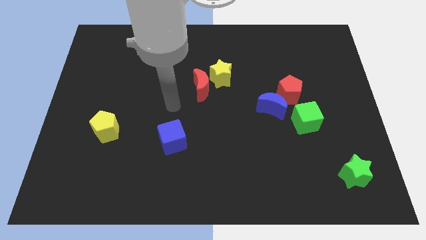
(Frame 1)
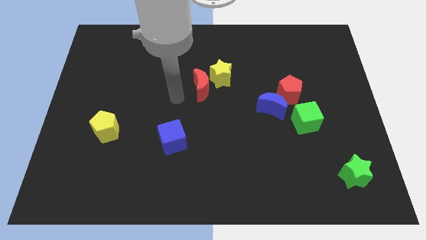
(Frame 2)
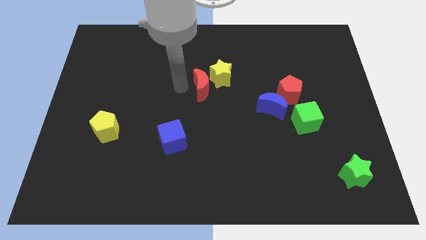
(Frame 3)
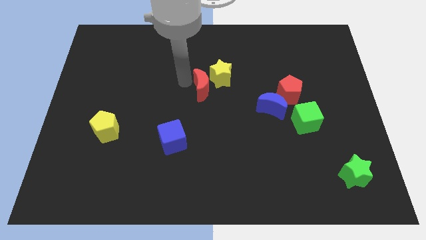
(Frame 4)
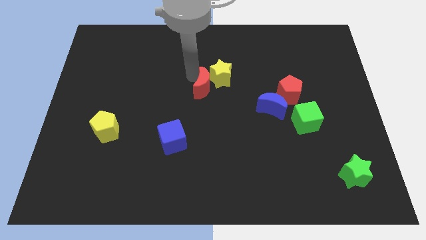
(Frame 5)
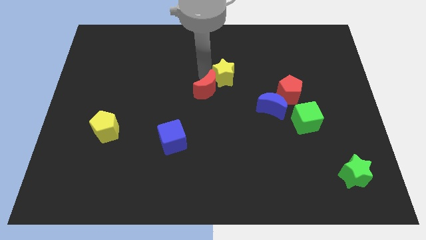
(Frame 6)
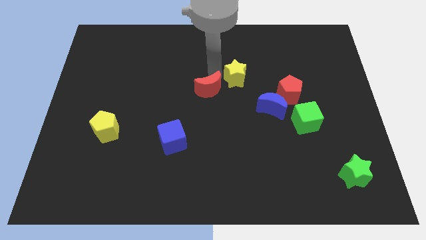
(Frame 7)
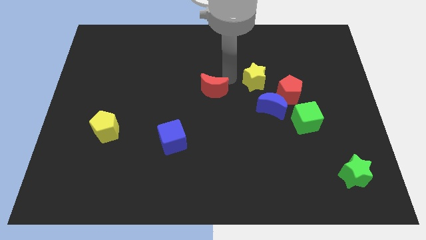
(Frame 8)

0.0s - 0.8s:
separate the red moon from the yellow star

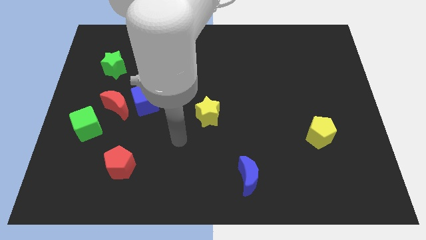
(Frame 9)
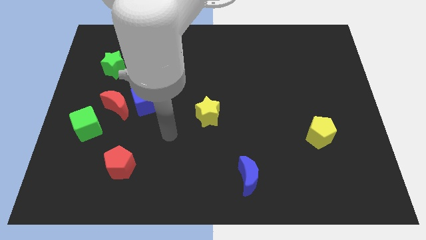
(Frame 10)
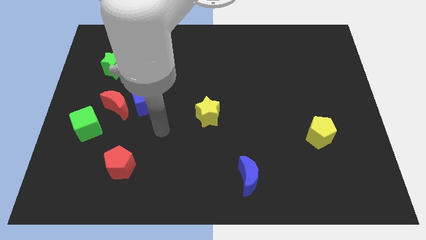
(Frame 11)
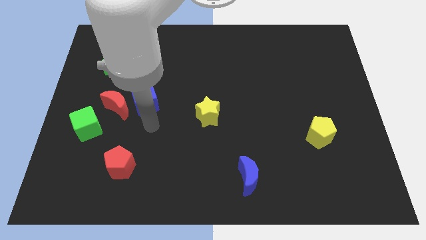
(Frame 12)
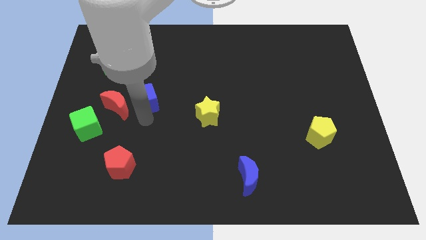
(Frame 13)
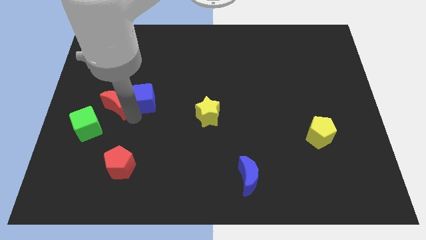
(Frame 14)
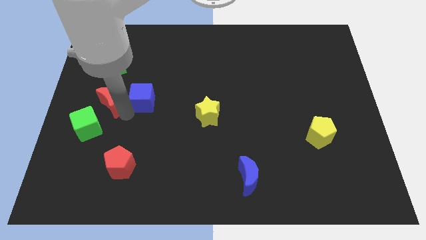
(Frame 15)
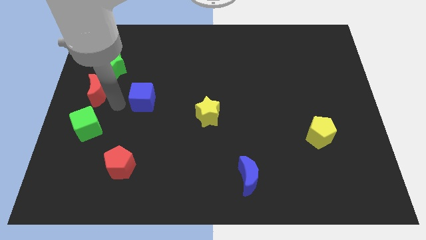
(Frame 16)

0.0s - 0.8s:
pull the blue cube apart from the red moon

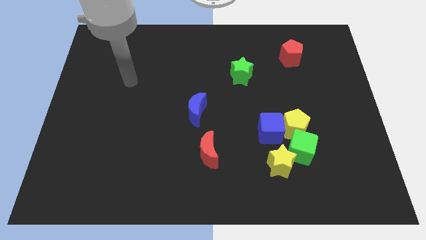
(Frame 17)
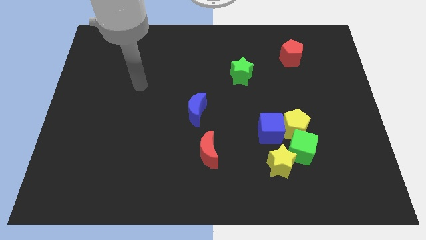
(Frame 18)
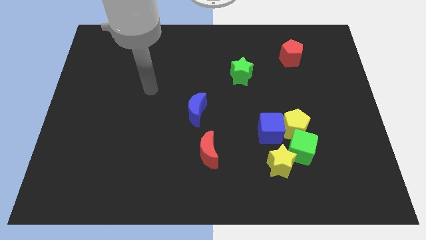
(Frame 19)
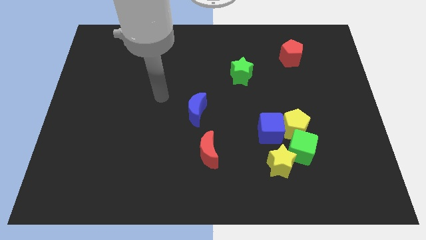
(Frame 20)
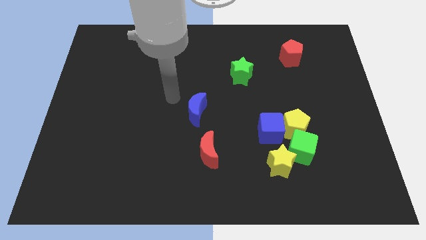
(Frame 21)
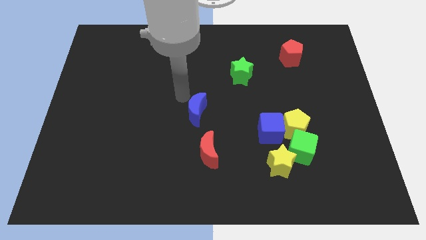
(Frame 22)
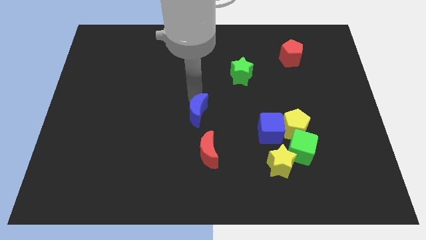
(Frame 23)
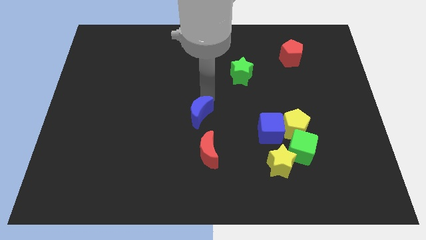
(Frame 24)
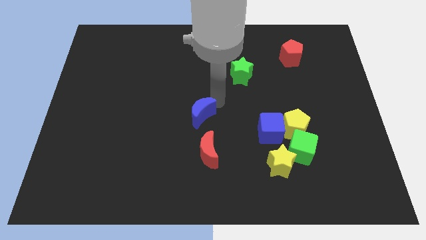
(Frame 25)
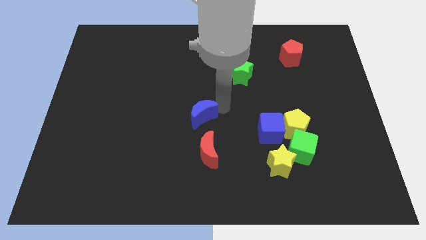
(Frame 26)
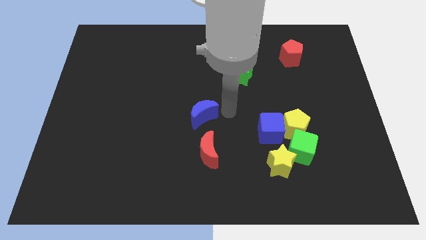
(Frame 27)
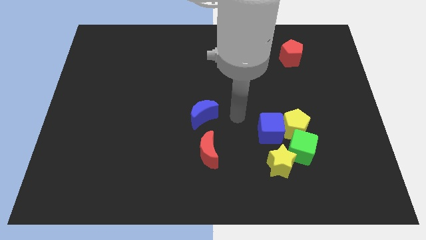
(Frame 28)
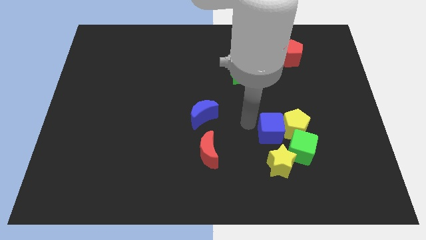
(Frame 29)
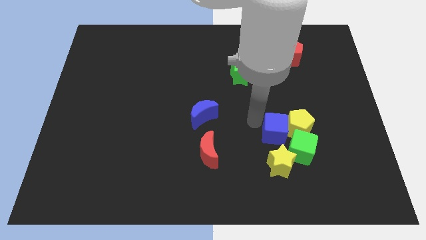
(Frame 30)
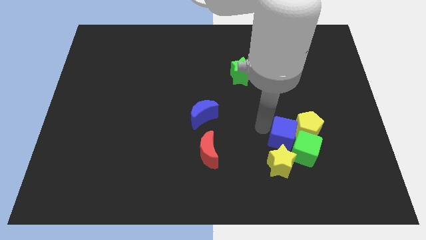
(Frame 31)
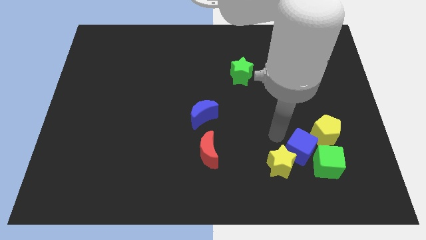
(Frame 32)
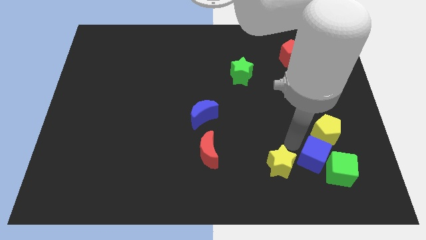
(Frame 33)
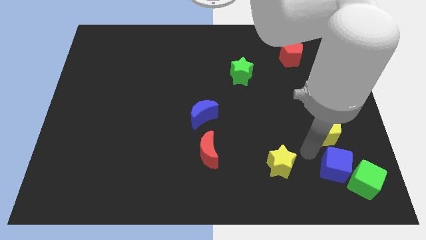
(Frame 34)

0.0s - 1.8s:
move the green cube away from the clump

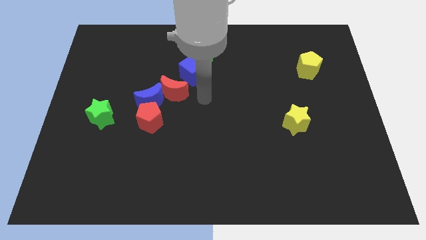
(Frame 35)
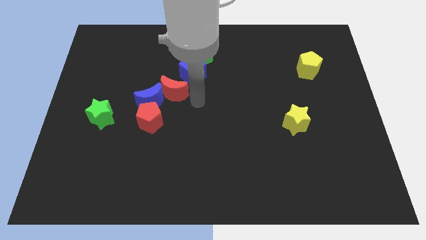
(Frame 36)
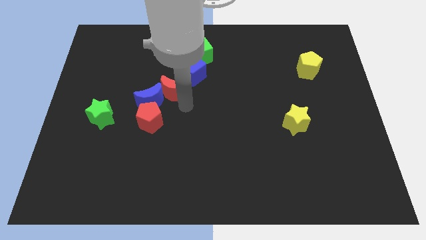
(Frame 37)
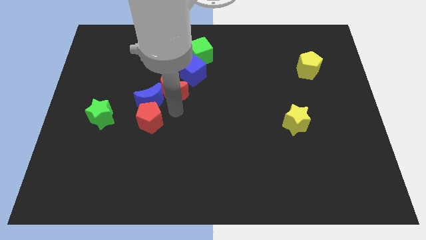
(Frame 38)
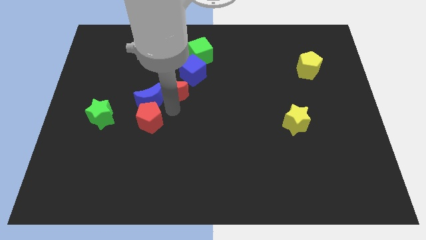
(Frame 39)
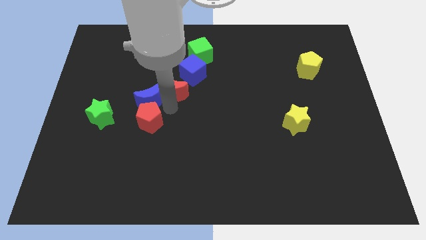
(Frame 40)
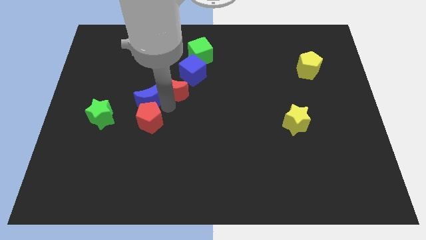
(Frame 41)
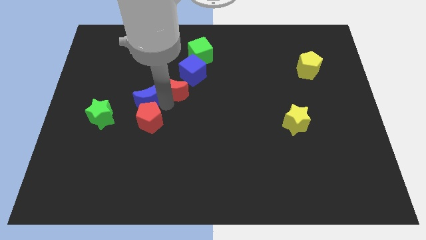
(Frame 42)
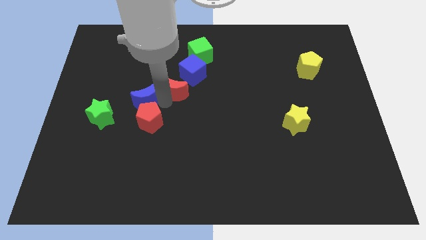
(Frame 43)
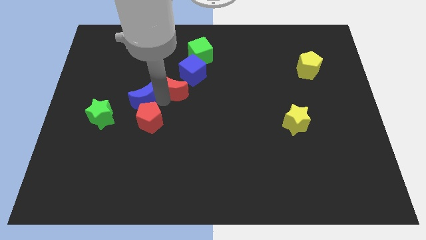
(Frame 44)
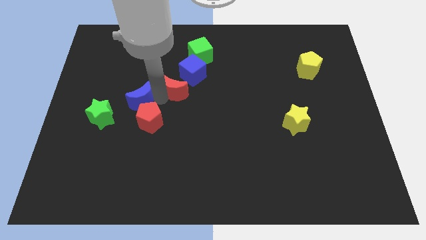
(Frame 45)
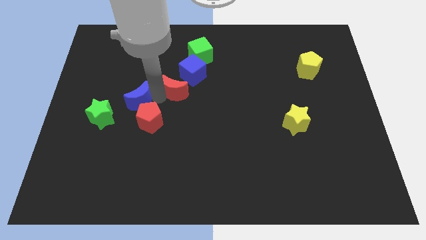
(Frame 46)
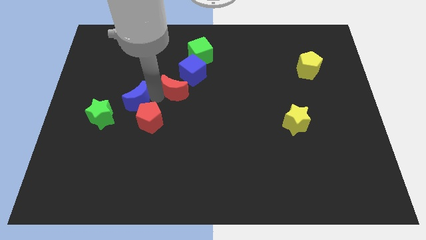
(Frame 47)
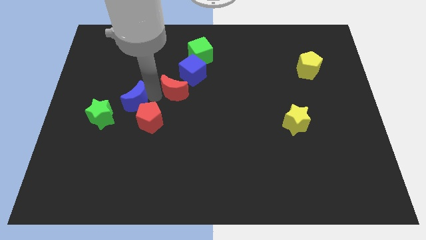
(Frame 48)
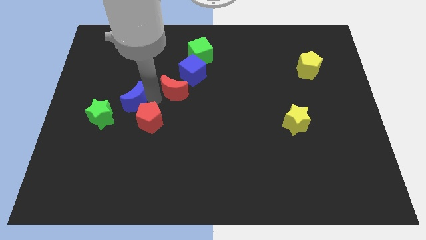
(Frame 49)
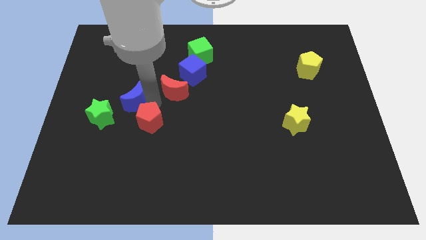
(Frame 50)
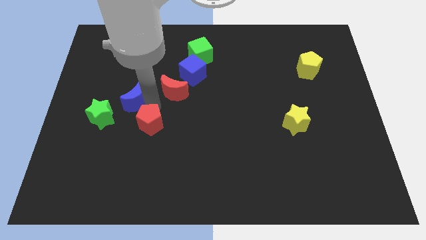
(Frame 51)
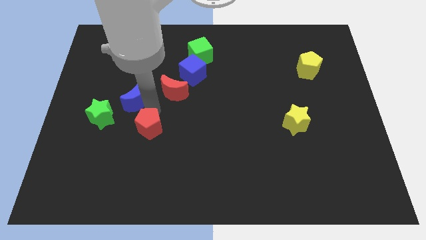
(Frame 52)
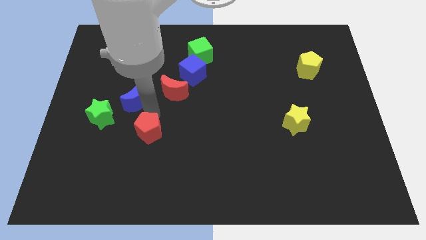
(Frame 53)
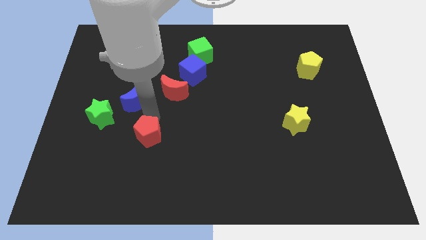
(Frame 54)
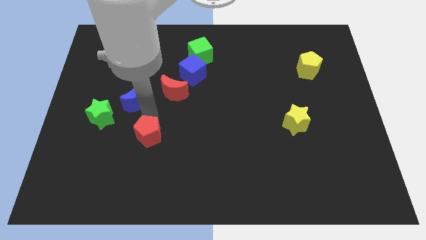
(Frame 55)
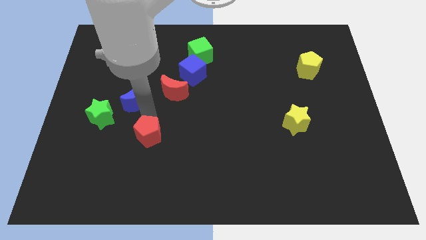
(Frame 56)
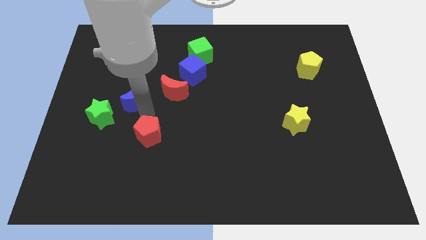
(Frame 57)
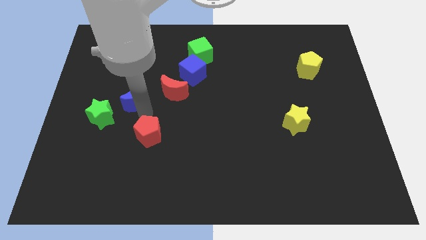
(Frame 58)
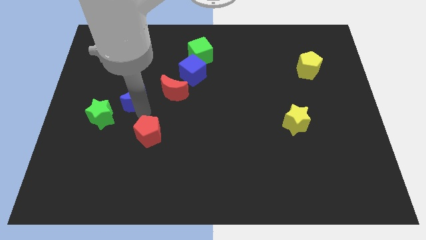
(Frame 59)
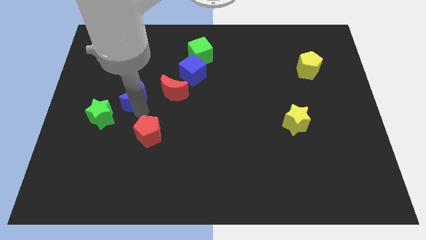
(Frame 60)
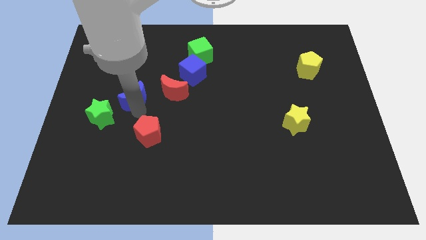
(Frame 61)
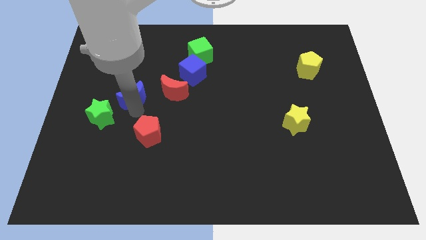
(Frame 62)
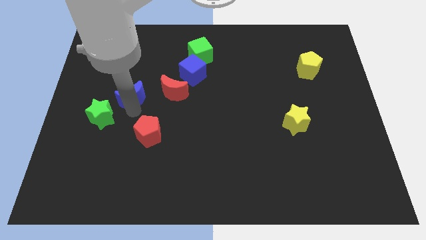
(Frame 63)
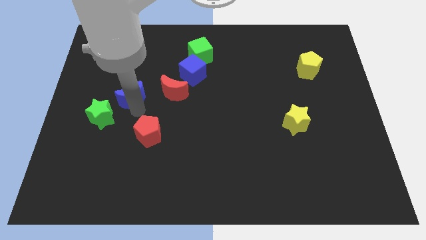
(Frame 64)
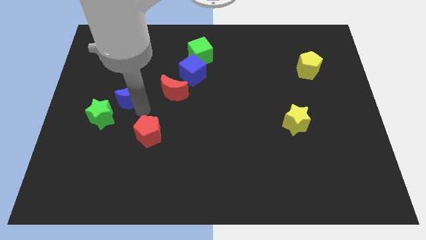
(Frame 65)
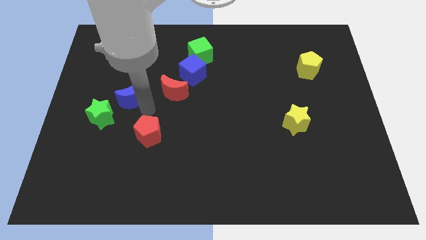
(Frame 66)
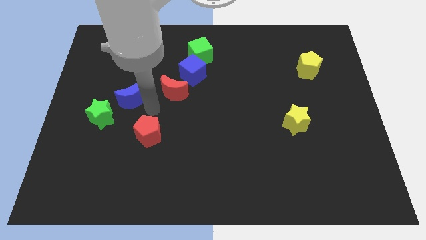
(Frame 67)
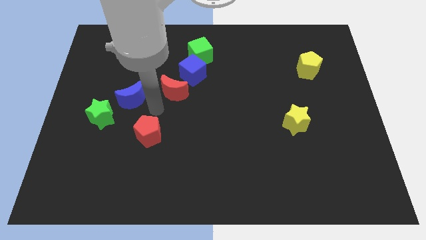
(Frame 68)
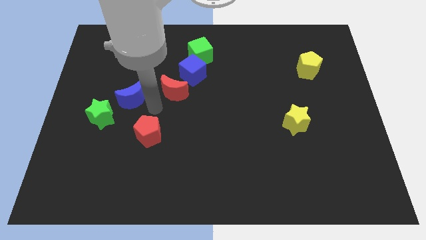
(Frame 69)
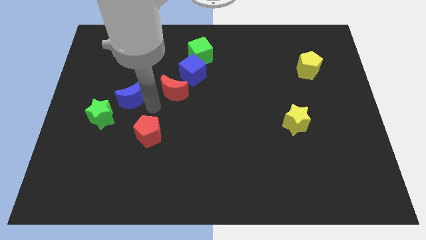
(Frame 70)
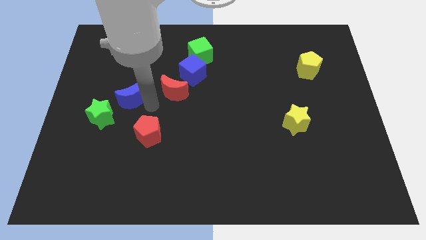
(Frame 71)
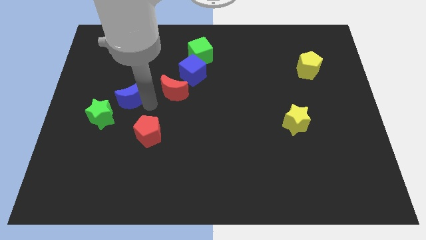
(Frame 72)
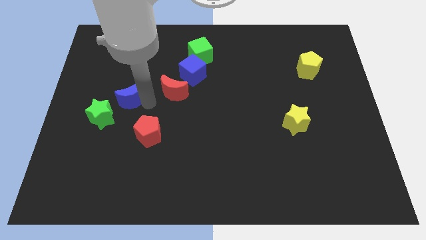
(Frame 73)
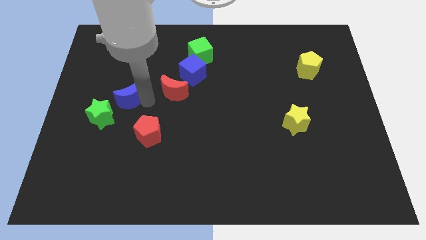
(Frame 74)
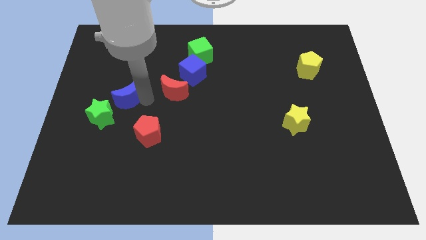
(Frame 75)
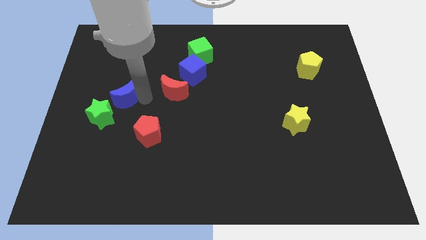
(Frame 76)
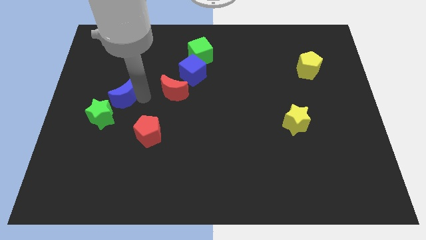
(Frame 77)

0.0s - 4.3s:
separate the blue moon from the red pentagon and red moon

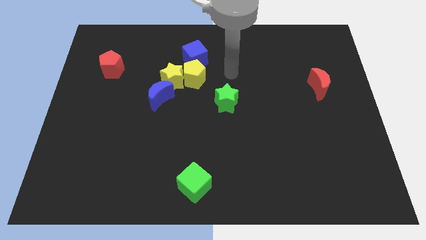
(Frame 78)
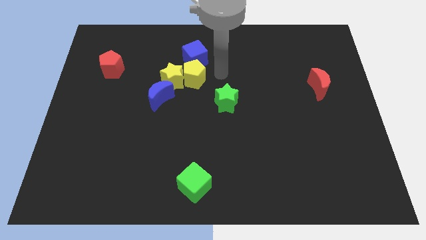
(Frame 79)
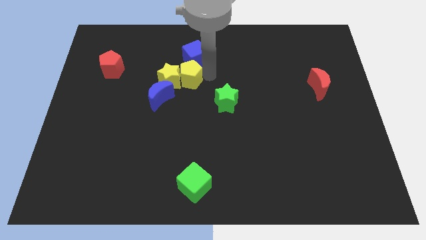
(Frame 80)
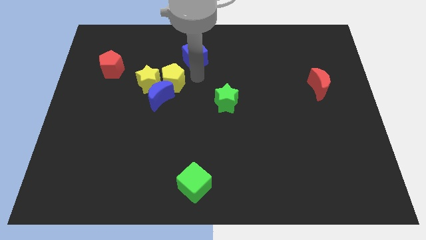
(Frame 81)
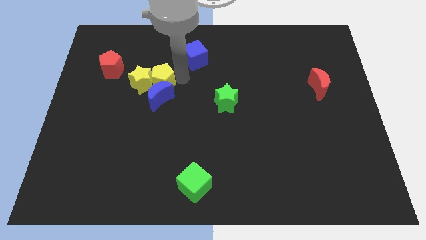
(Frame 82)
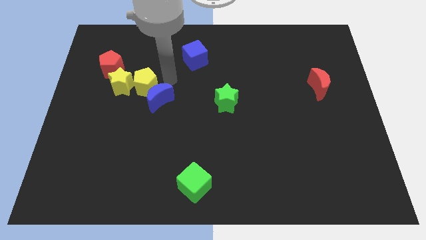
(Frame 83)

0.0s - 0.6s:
separate the yellow star from the yellow pentagon, blue moon, and blue cube

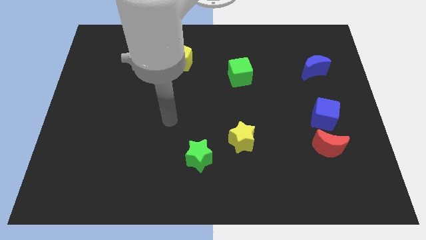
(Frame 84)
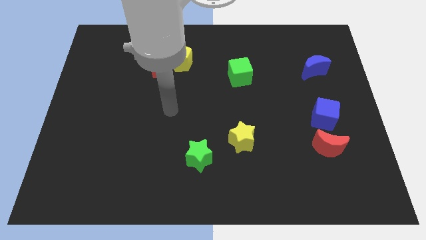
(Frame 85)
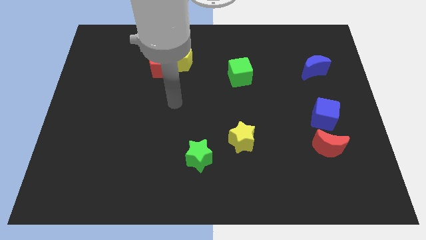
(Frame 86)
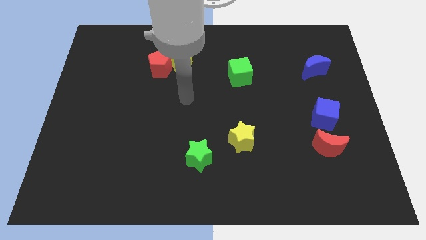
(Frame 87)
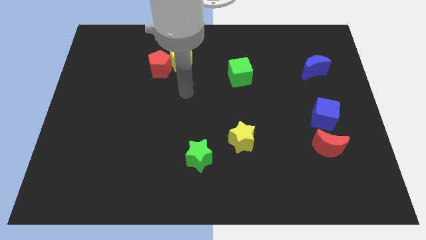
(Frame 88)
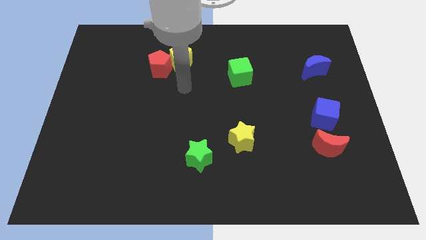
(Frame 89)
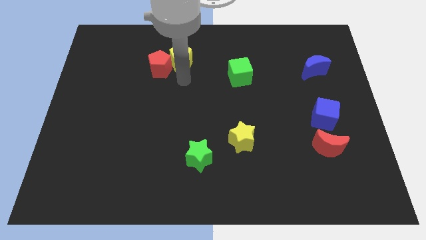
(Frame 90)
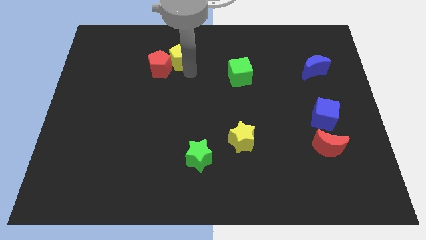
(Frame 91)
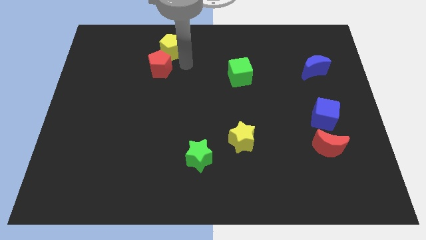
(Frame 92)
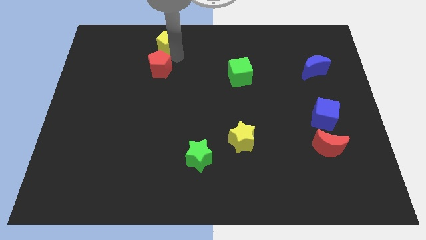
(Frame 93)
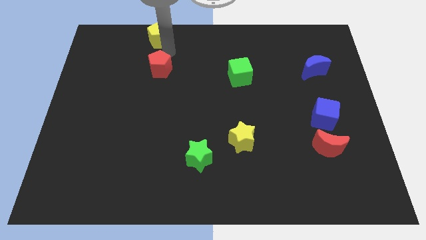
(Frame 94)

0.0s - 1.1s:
pull the red pentagon apart from the yellow pentagon
